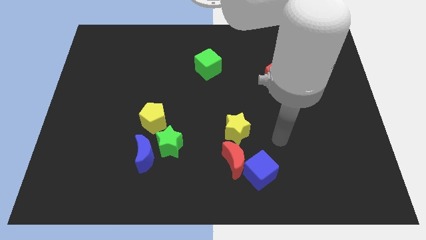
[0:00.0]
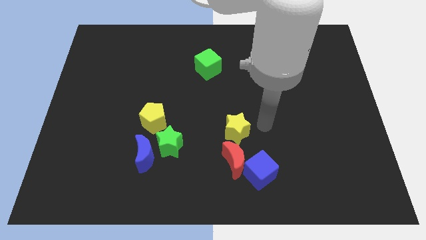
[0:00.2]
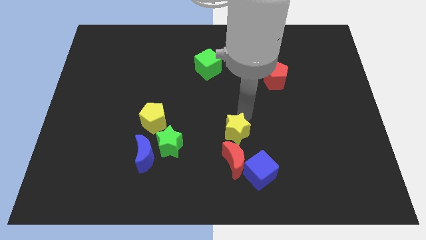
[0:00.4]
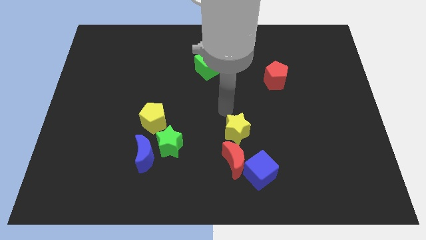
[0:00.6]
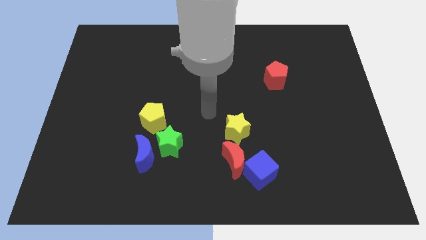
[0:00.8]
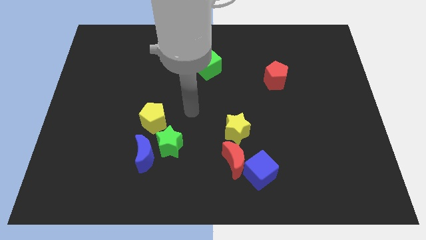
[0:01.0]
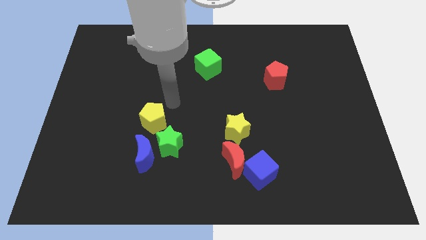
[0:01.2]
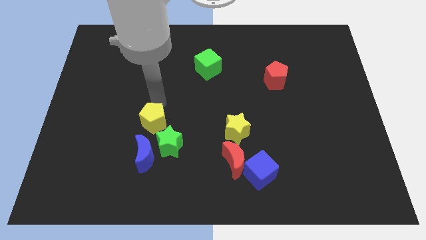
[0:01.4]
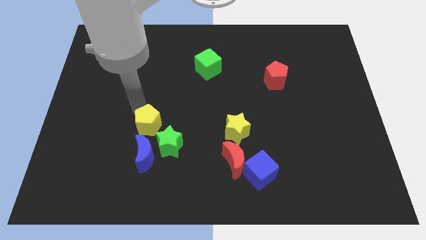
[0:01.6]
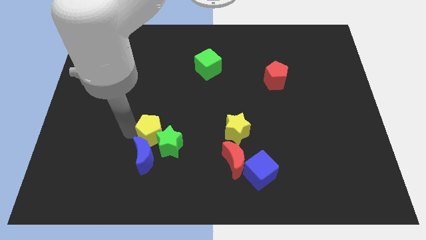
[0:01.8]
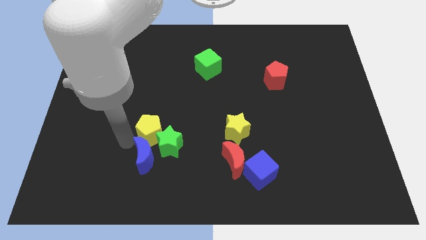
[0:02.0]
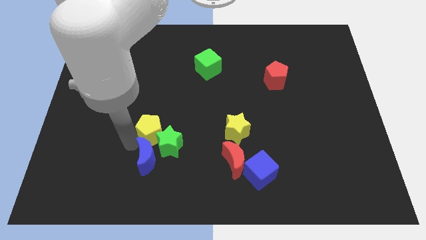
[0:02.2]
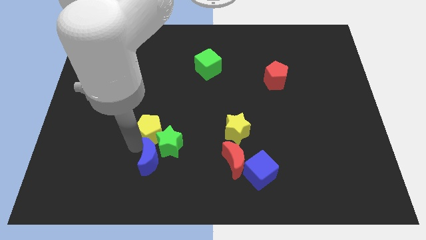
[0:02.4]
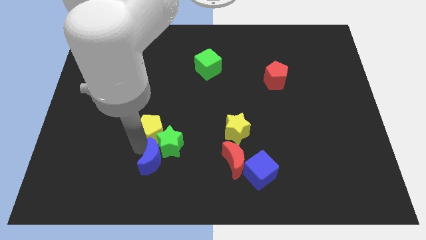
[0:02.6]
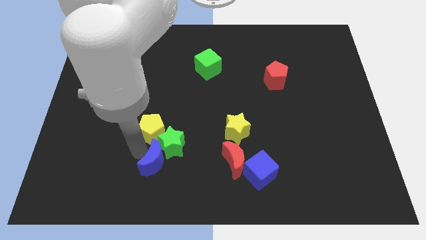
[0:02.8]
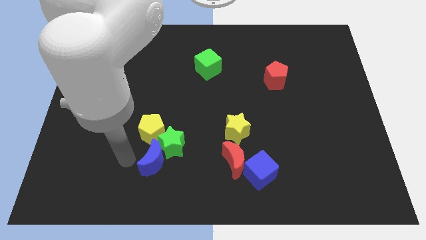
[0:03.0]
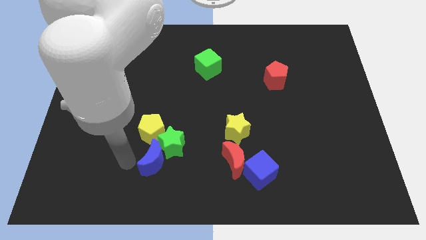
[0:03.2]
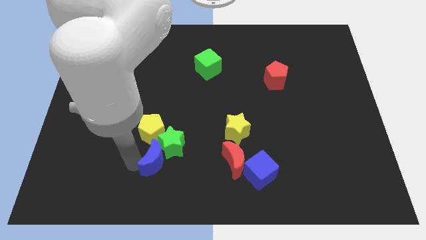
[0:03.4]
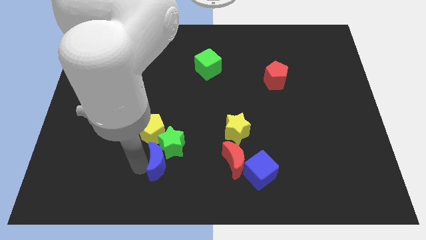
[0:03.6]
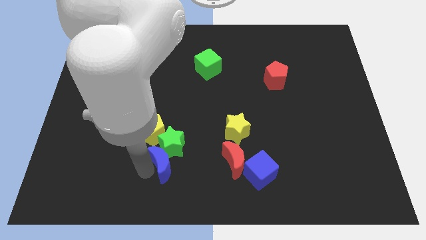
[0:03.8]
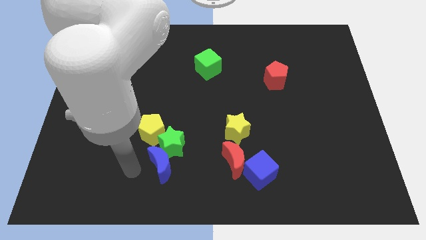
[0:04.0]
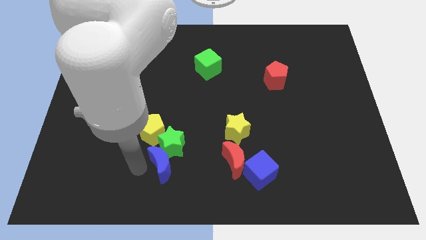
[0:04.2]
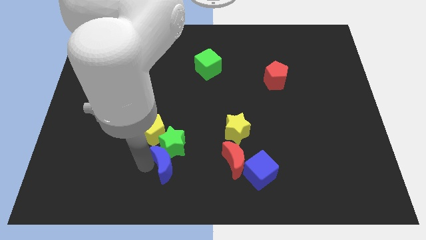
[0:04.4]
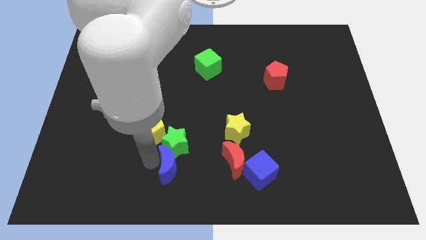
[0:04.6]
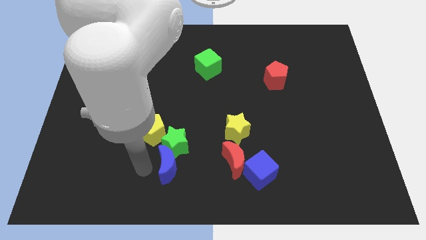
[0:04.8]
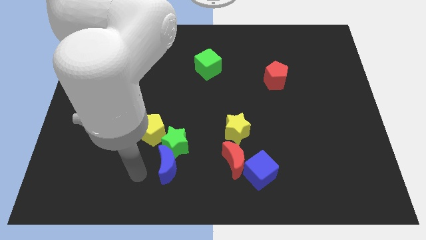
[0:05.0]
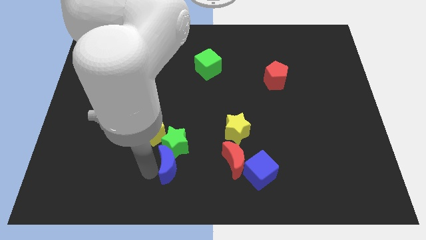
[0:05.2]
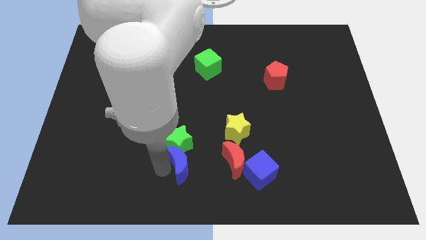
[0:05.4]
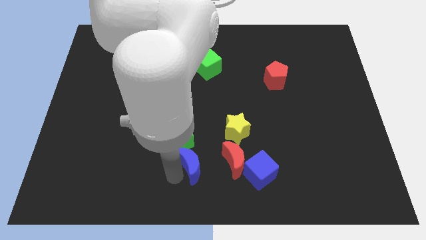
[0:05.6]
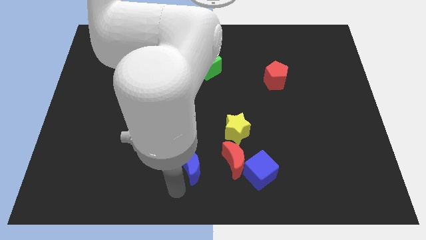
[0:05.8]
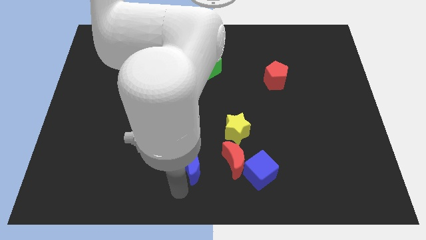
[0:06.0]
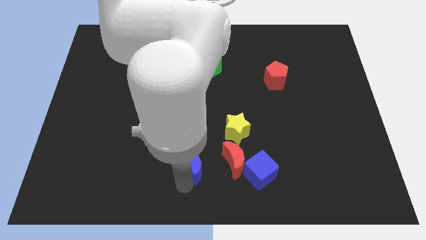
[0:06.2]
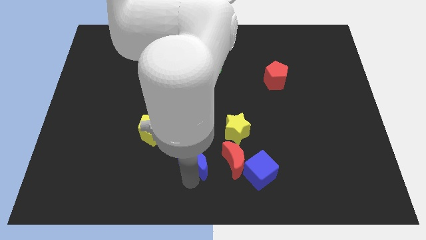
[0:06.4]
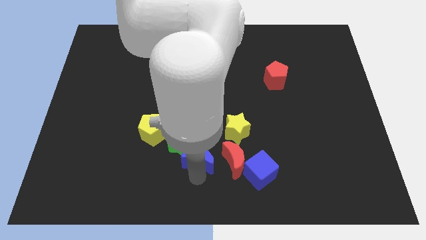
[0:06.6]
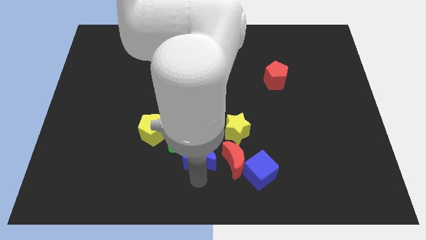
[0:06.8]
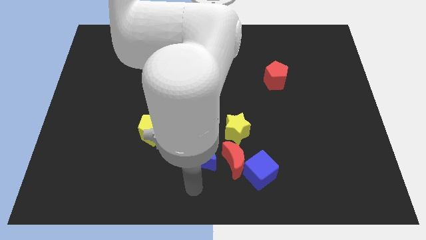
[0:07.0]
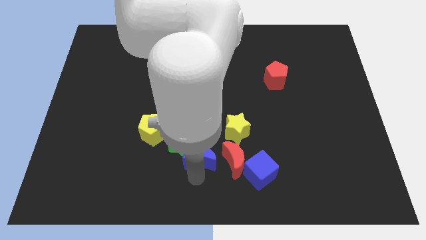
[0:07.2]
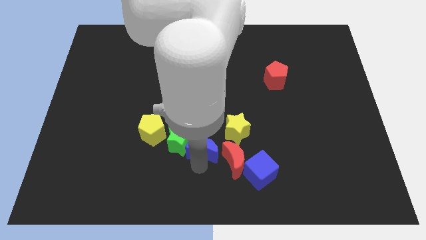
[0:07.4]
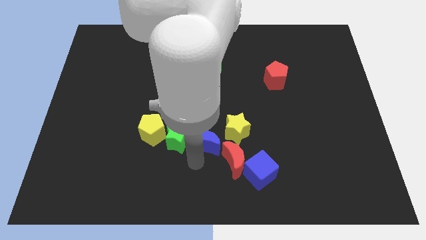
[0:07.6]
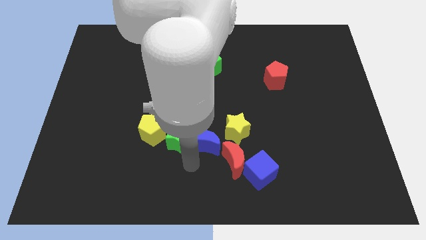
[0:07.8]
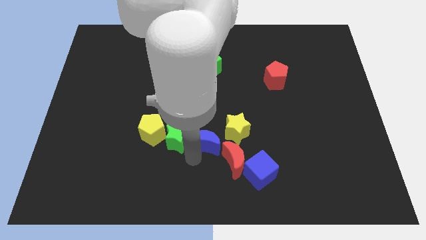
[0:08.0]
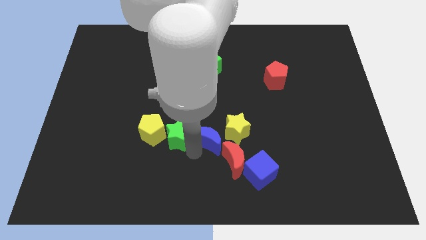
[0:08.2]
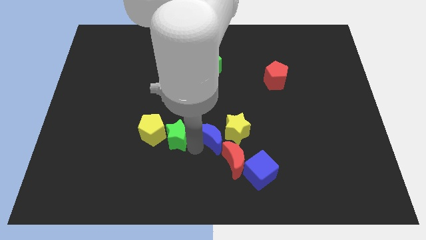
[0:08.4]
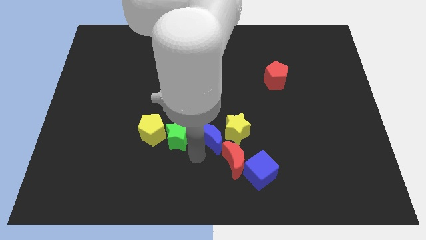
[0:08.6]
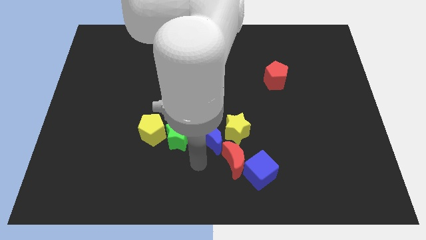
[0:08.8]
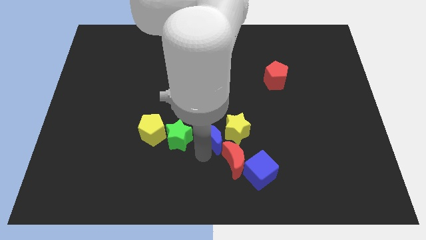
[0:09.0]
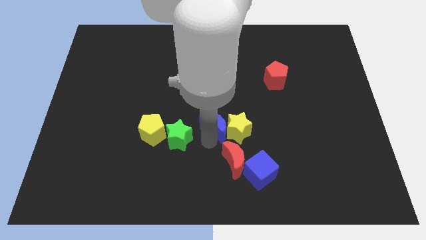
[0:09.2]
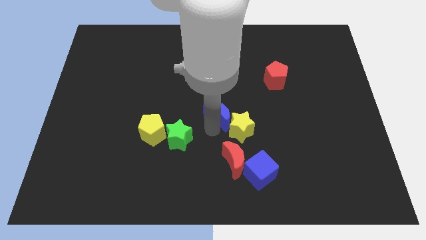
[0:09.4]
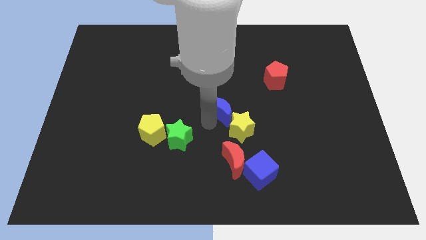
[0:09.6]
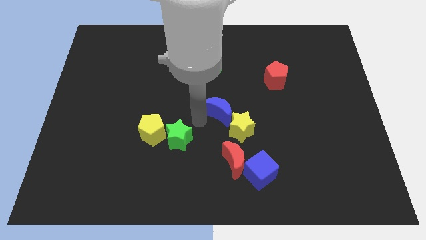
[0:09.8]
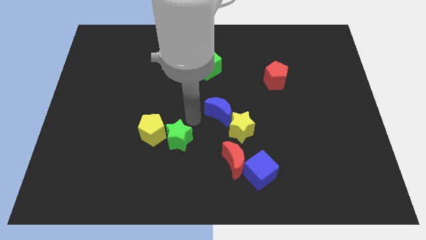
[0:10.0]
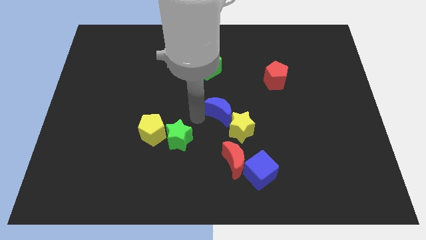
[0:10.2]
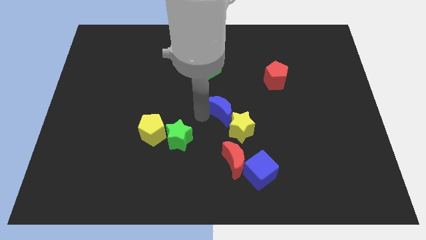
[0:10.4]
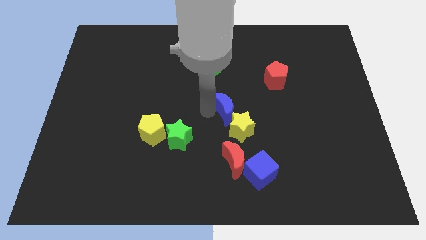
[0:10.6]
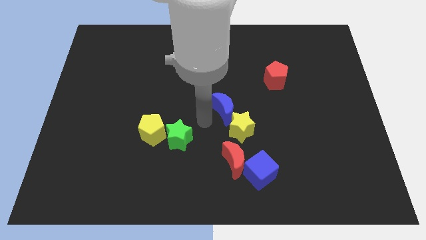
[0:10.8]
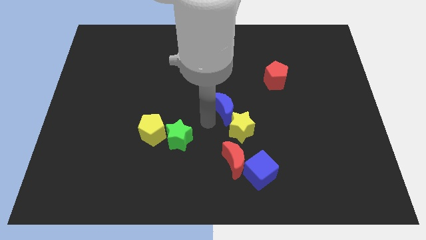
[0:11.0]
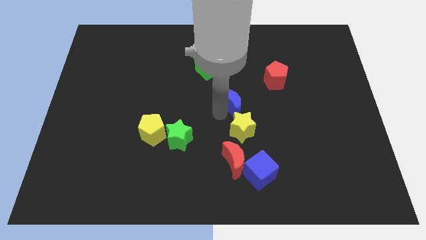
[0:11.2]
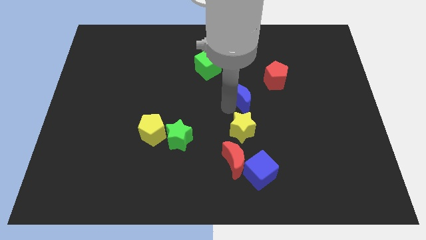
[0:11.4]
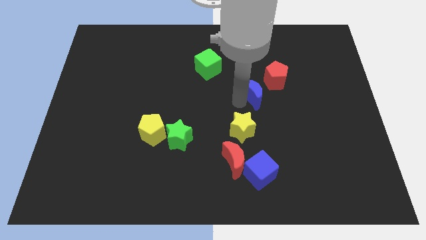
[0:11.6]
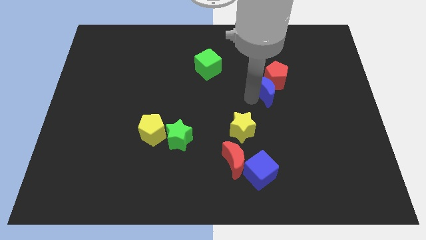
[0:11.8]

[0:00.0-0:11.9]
slide the blue moon to the red pentagon

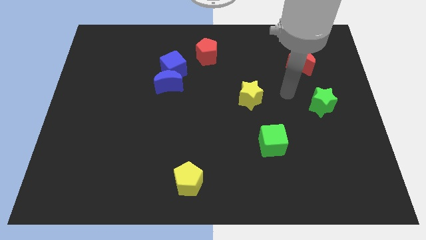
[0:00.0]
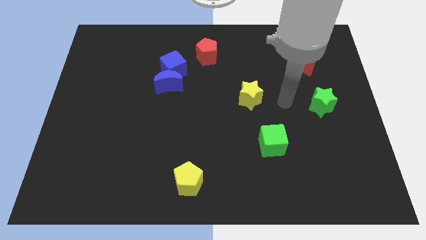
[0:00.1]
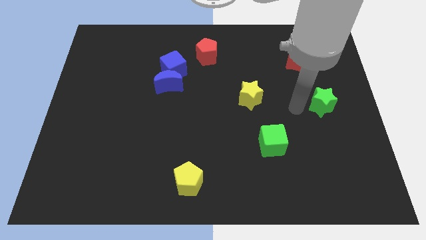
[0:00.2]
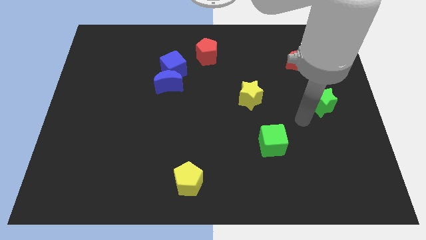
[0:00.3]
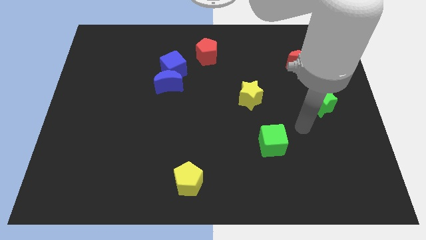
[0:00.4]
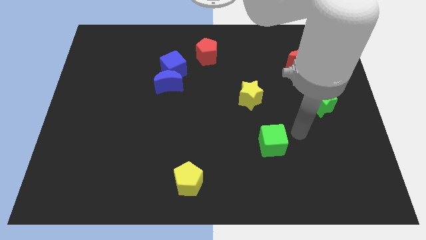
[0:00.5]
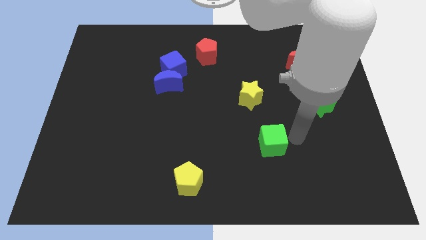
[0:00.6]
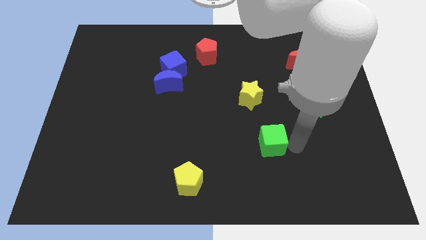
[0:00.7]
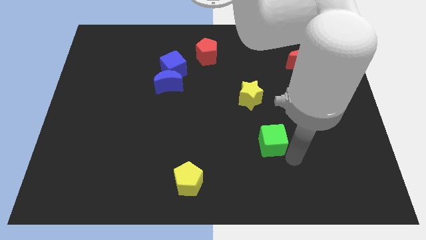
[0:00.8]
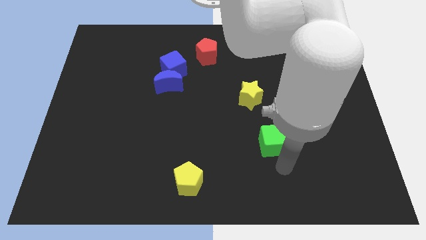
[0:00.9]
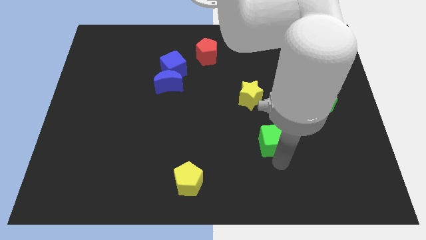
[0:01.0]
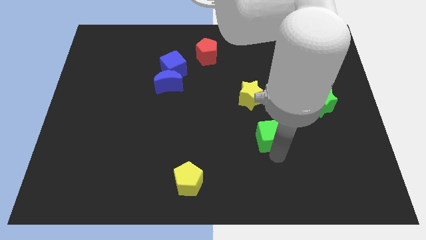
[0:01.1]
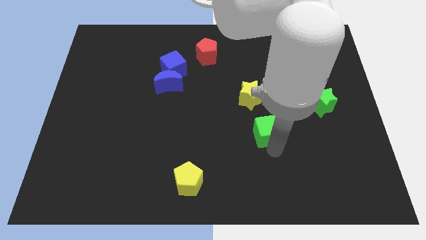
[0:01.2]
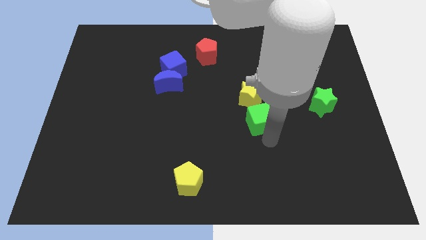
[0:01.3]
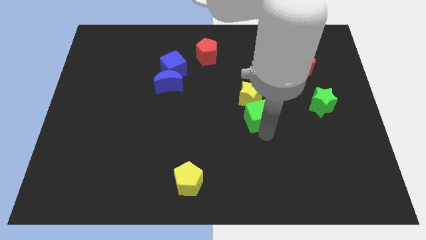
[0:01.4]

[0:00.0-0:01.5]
move the green cube towards the yellow star
